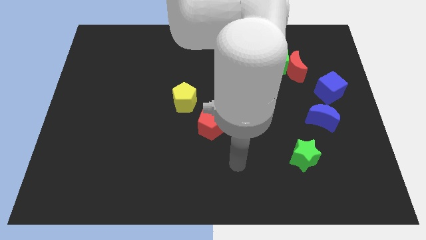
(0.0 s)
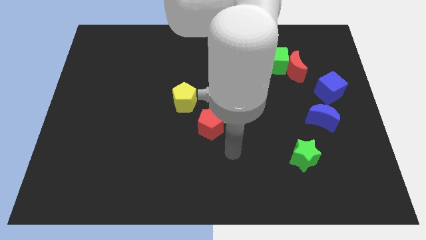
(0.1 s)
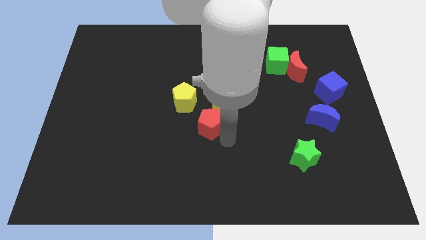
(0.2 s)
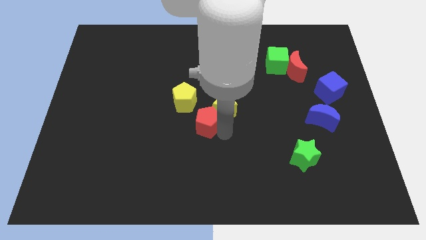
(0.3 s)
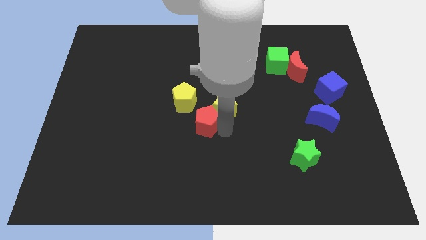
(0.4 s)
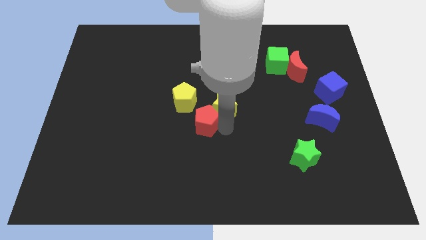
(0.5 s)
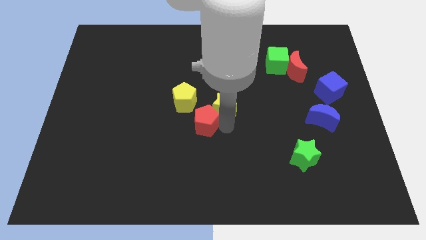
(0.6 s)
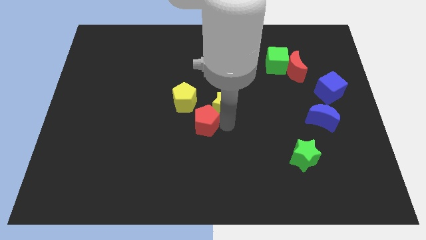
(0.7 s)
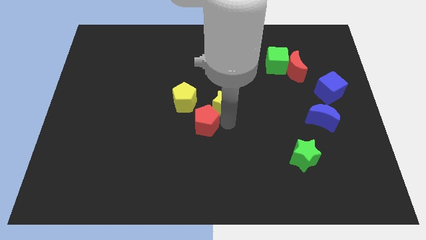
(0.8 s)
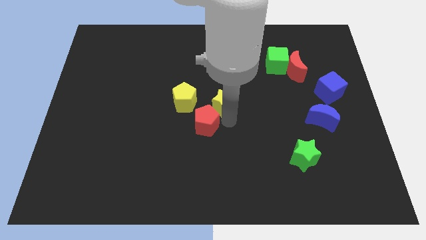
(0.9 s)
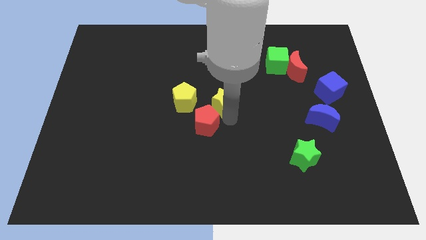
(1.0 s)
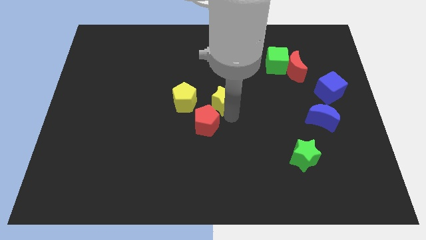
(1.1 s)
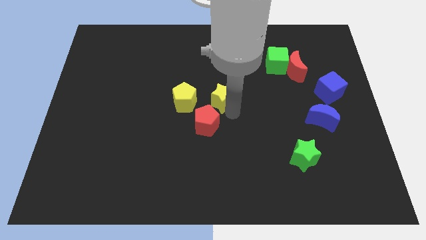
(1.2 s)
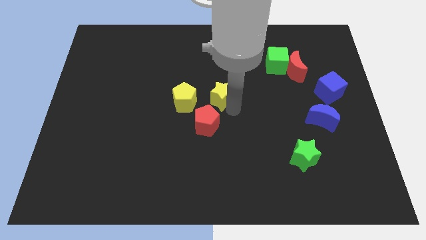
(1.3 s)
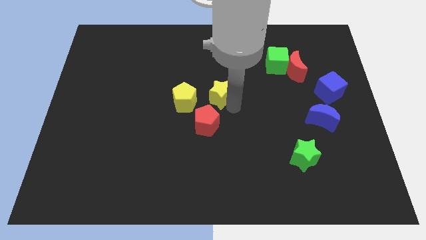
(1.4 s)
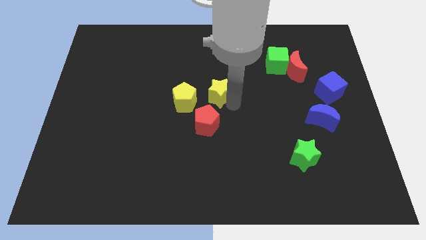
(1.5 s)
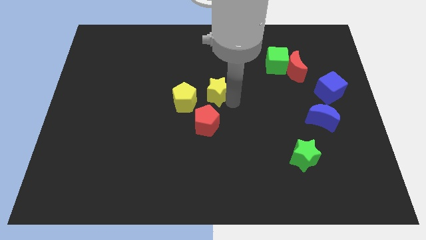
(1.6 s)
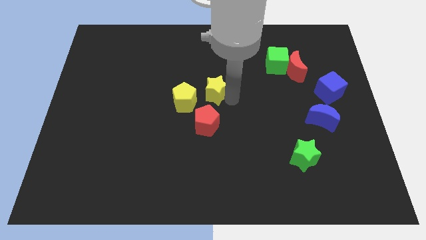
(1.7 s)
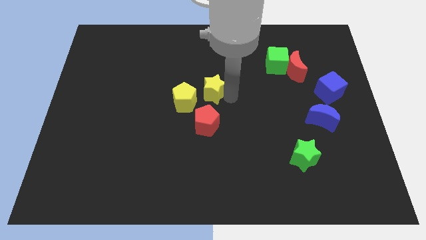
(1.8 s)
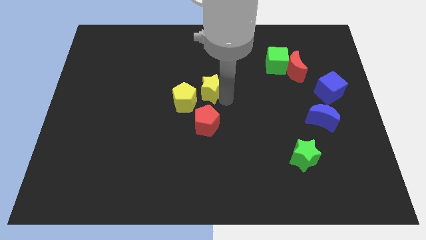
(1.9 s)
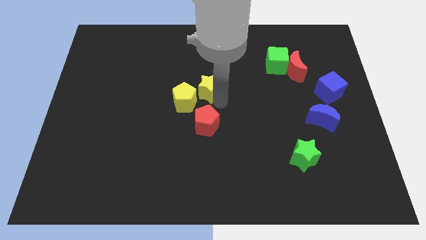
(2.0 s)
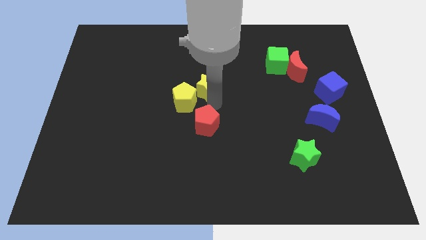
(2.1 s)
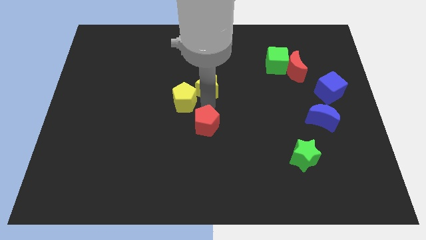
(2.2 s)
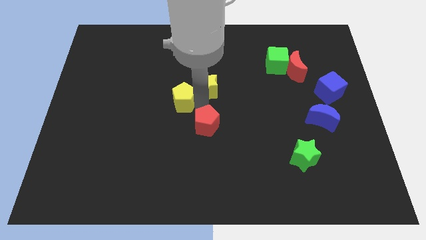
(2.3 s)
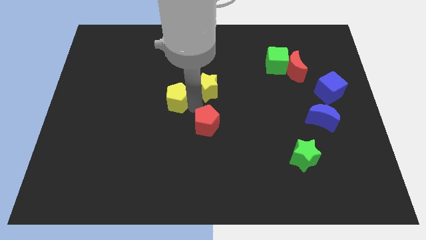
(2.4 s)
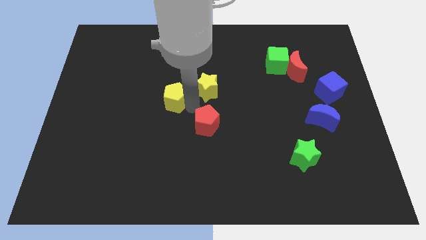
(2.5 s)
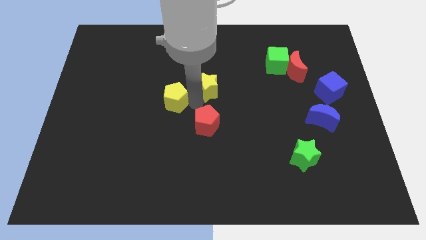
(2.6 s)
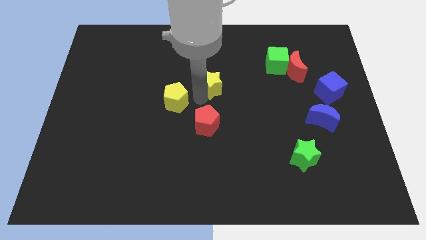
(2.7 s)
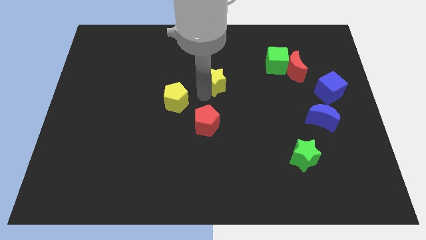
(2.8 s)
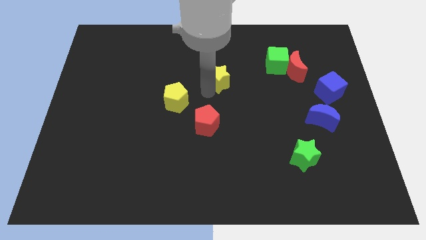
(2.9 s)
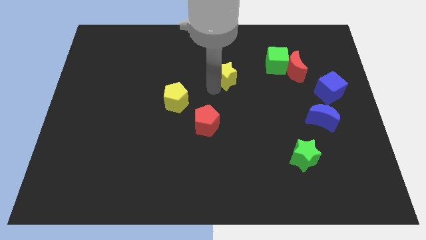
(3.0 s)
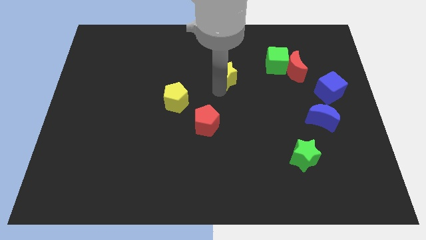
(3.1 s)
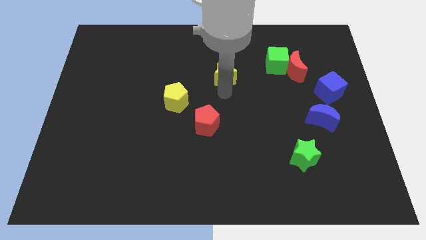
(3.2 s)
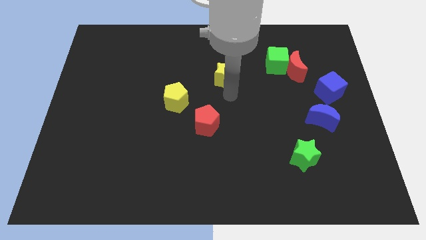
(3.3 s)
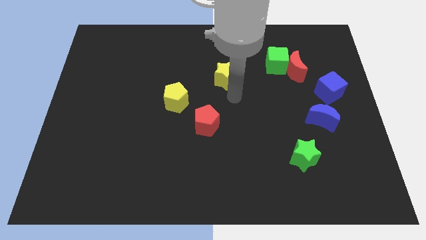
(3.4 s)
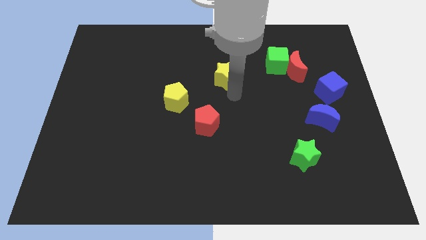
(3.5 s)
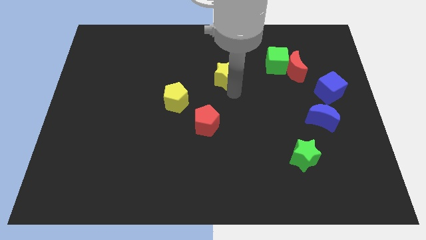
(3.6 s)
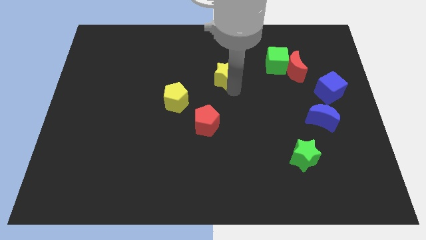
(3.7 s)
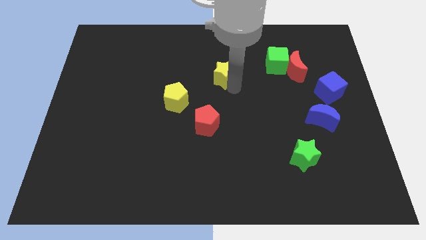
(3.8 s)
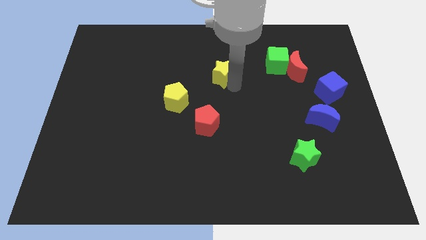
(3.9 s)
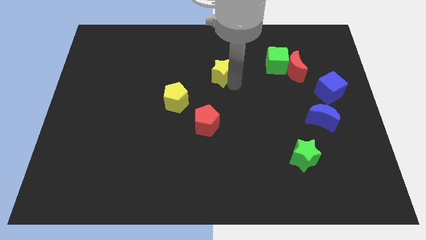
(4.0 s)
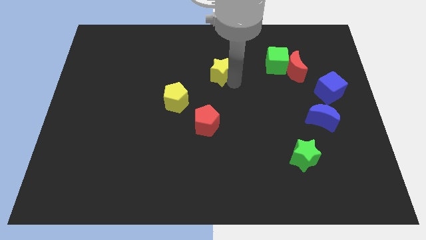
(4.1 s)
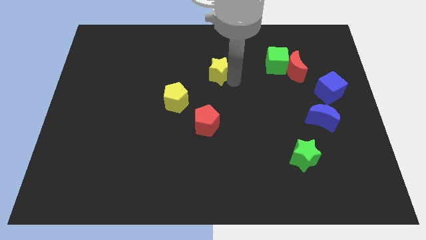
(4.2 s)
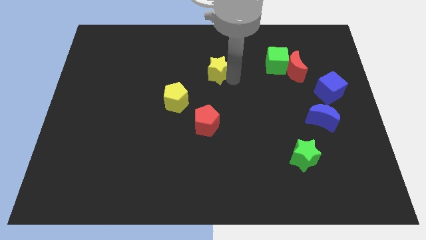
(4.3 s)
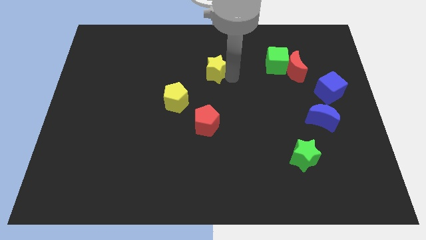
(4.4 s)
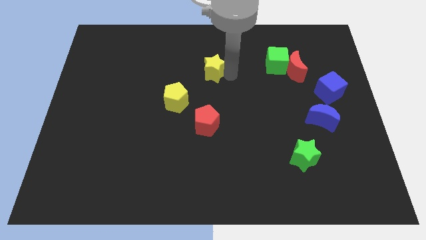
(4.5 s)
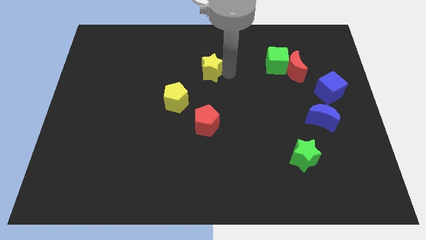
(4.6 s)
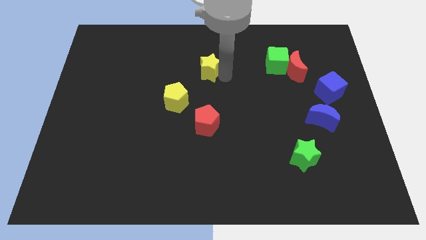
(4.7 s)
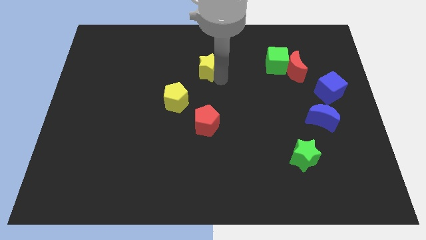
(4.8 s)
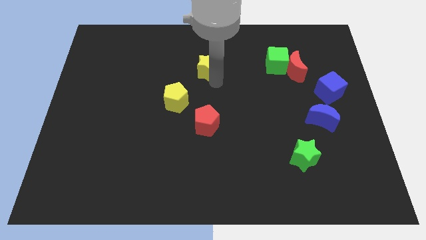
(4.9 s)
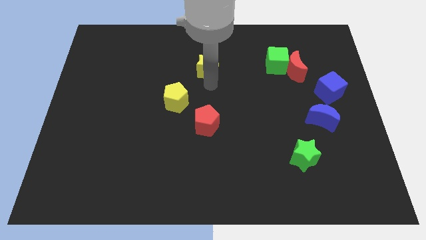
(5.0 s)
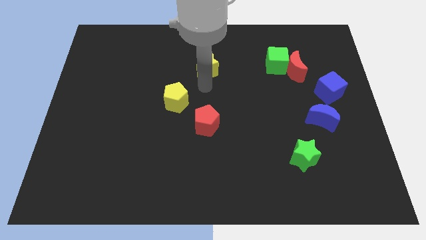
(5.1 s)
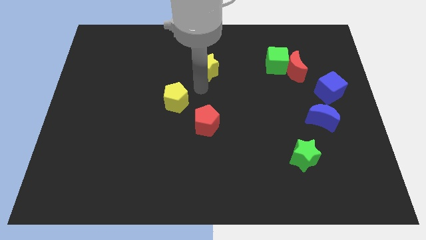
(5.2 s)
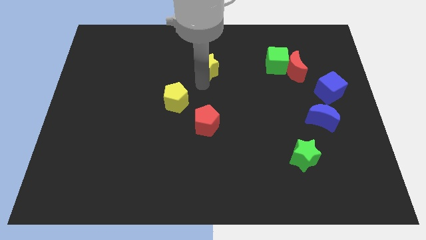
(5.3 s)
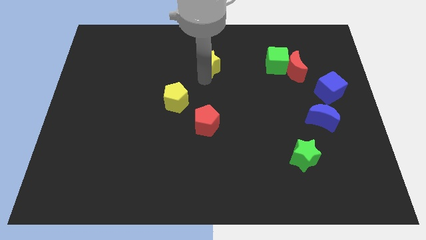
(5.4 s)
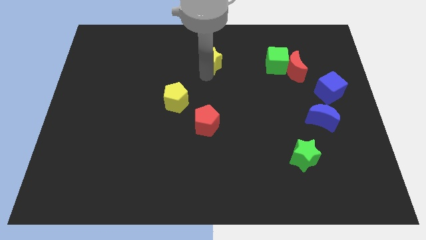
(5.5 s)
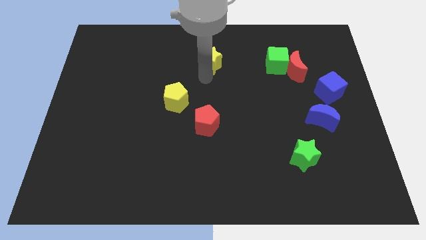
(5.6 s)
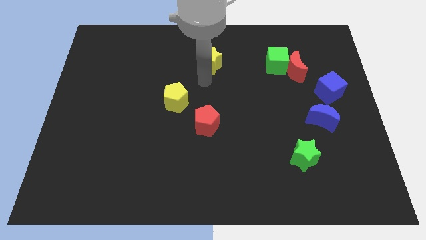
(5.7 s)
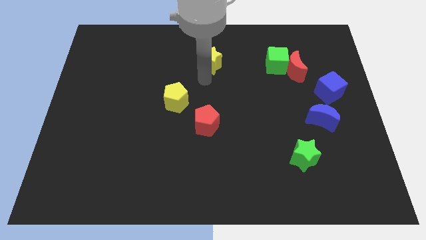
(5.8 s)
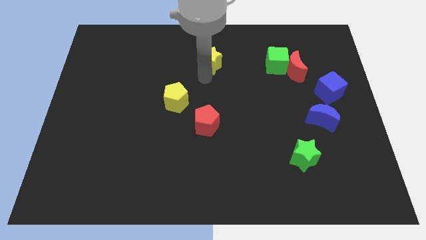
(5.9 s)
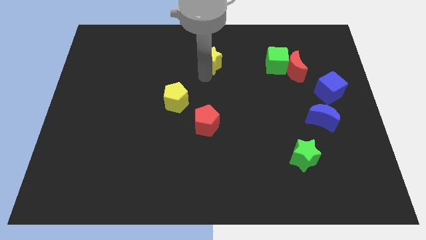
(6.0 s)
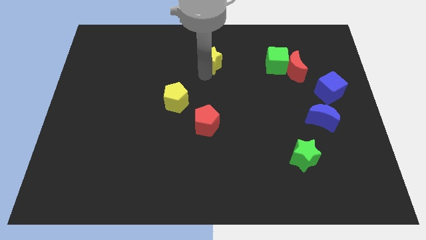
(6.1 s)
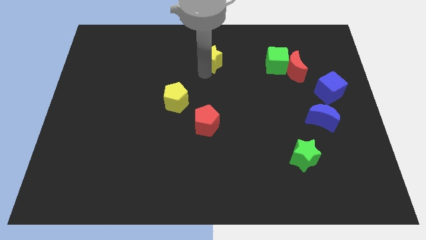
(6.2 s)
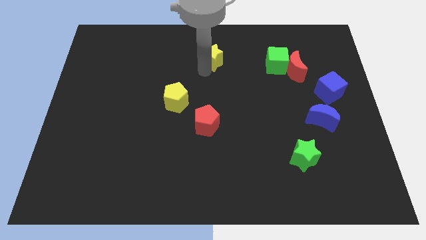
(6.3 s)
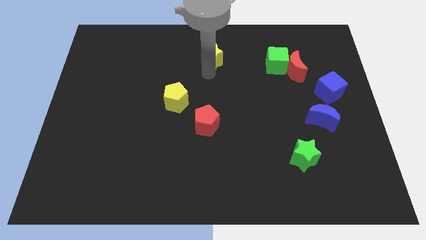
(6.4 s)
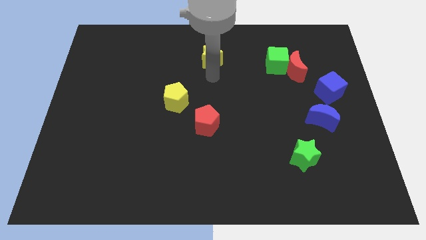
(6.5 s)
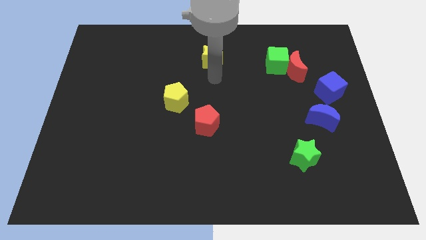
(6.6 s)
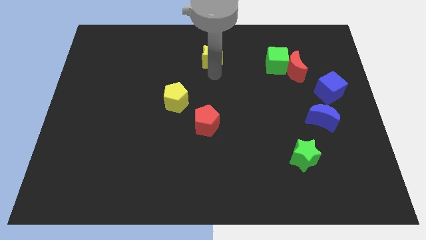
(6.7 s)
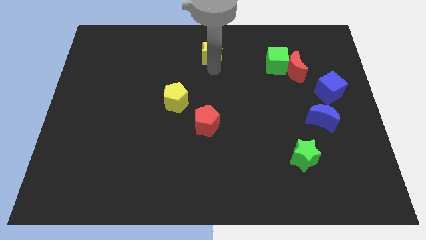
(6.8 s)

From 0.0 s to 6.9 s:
push the yellow star to the top side
